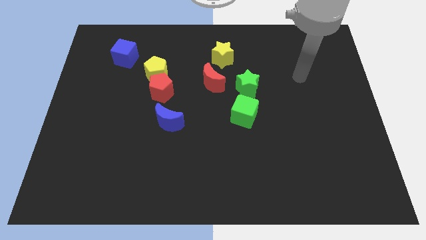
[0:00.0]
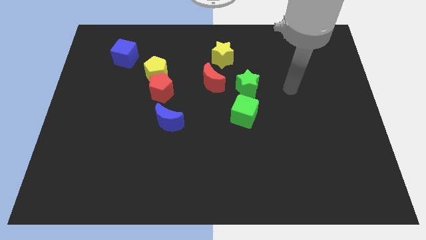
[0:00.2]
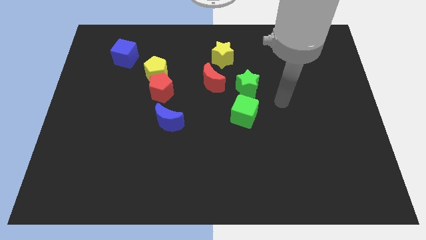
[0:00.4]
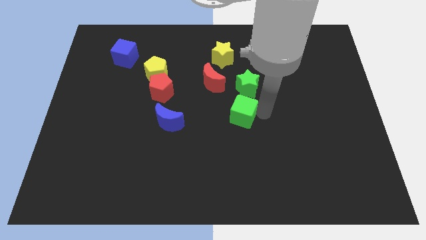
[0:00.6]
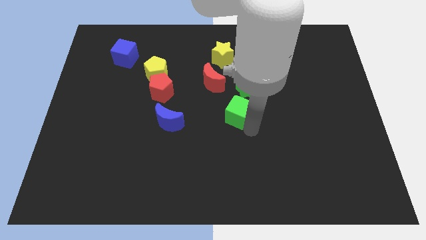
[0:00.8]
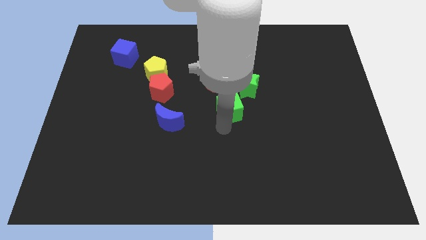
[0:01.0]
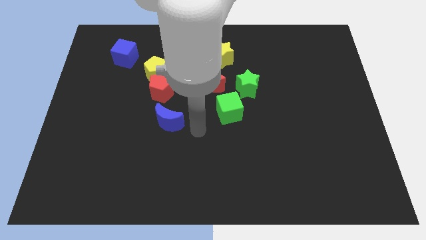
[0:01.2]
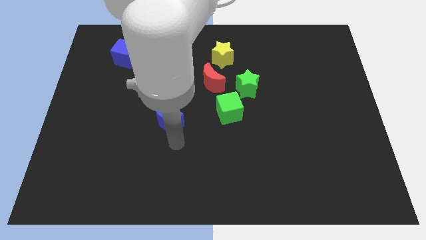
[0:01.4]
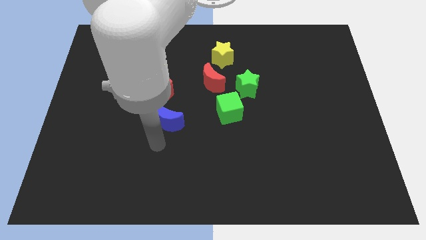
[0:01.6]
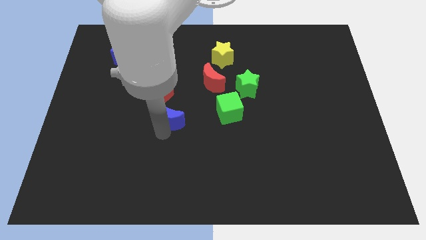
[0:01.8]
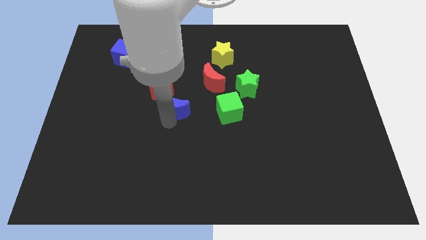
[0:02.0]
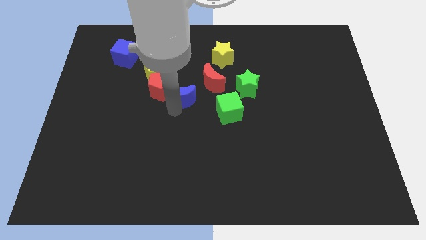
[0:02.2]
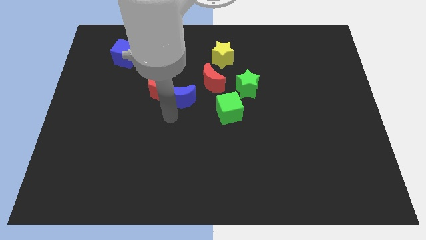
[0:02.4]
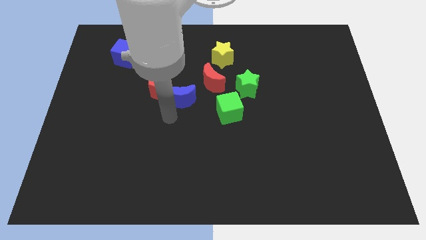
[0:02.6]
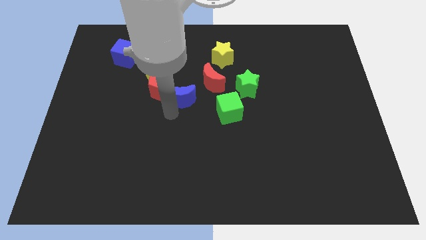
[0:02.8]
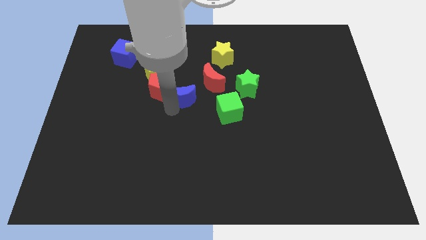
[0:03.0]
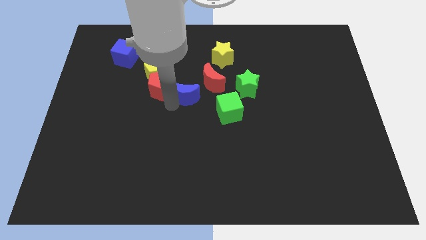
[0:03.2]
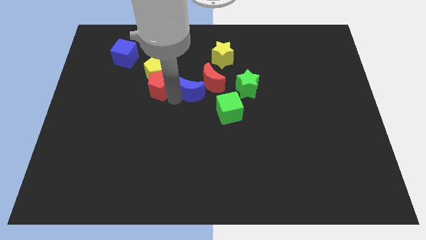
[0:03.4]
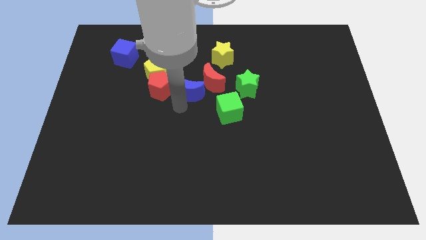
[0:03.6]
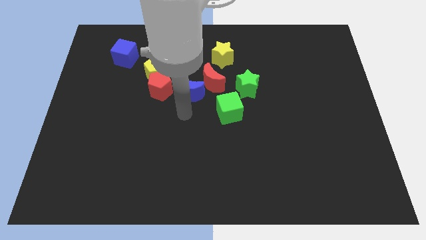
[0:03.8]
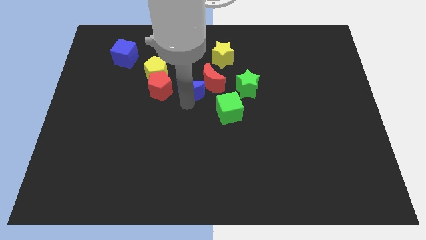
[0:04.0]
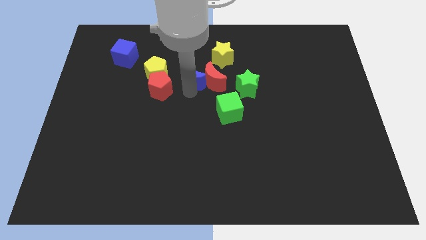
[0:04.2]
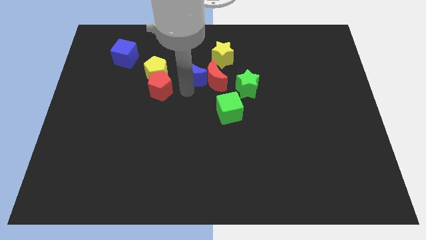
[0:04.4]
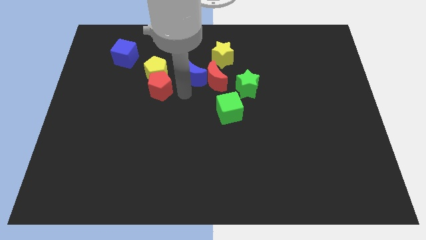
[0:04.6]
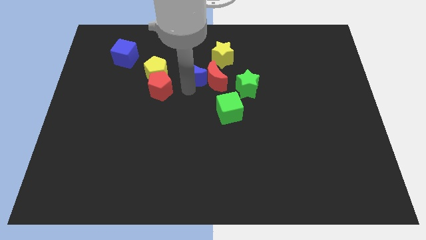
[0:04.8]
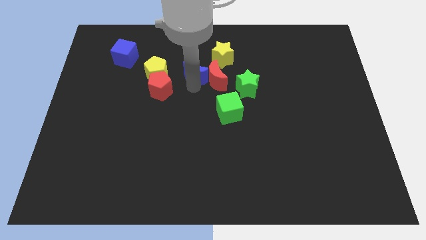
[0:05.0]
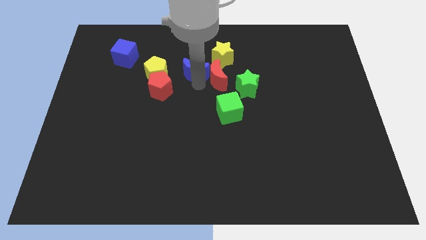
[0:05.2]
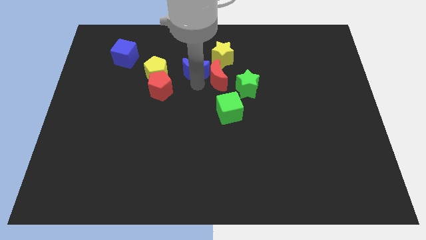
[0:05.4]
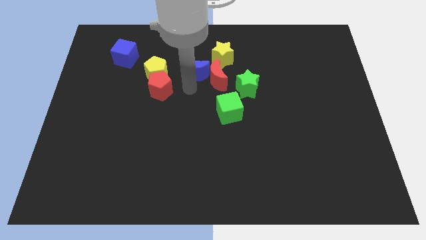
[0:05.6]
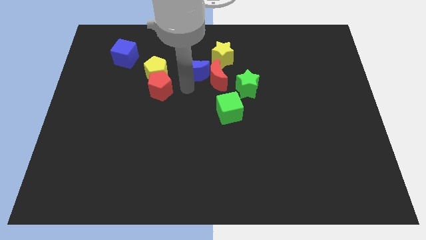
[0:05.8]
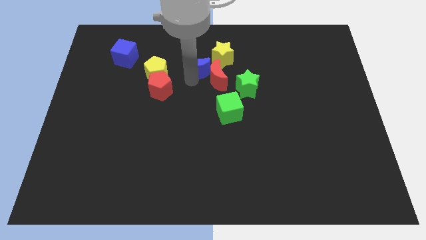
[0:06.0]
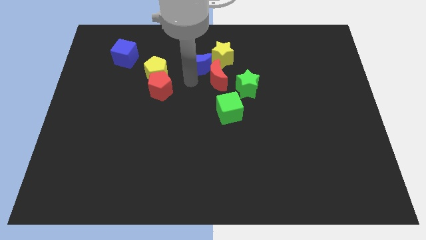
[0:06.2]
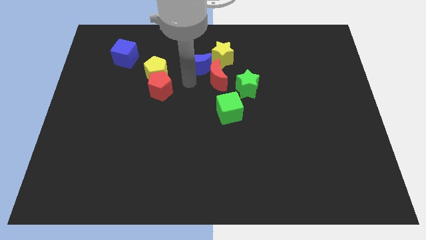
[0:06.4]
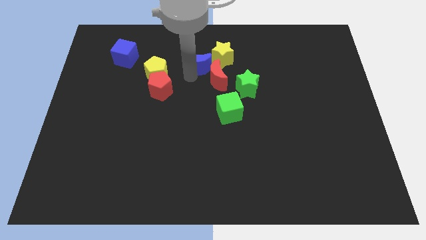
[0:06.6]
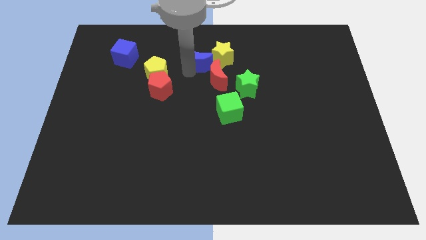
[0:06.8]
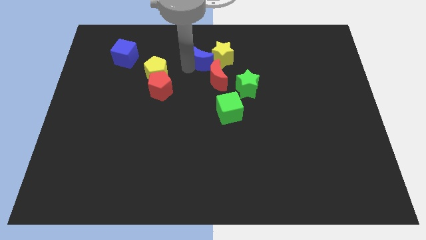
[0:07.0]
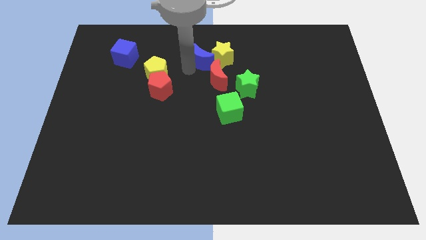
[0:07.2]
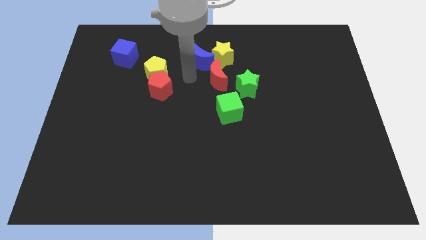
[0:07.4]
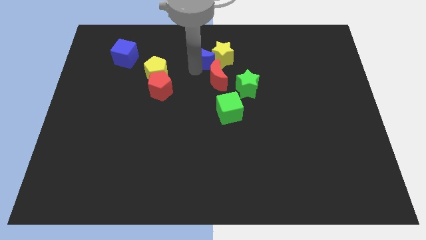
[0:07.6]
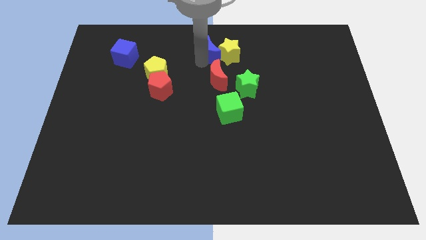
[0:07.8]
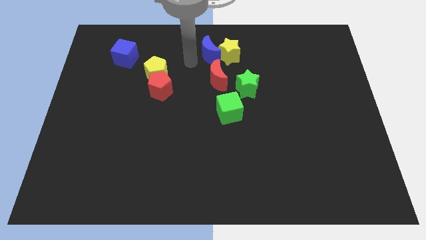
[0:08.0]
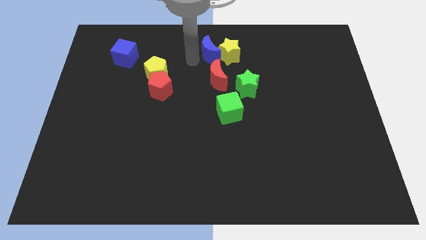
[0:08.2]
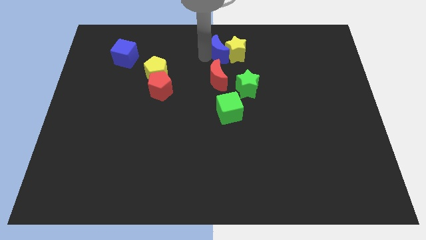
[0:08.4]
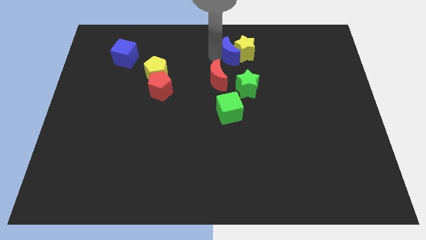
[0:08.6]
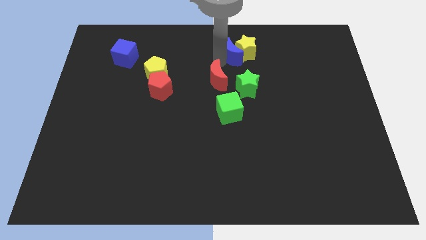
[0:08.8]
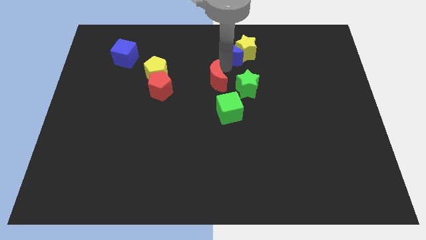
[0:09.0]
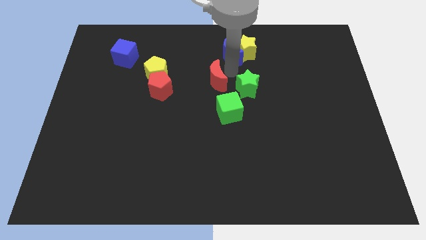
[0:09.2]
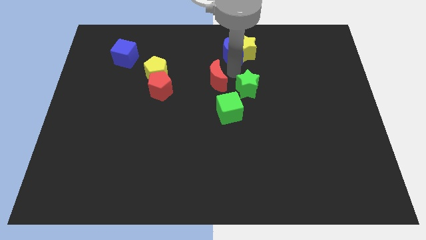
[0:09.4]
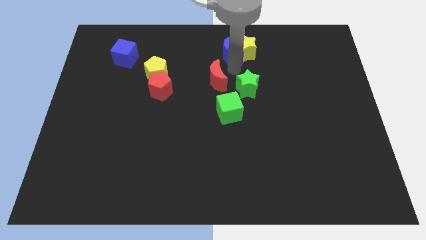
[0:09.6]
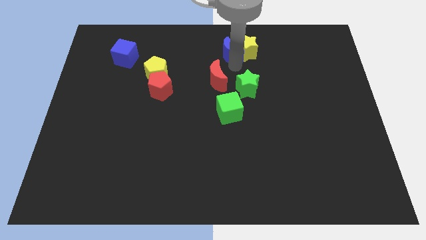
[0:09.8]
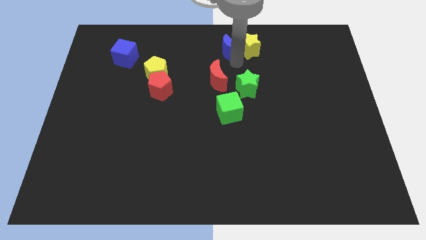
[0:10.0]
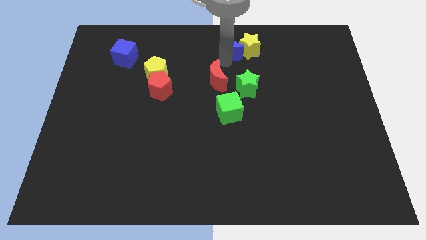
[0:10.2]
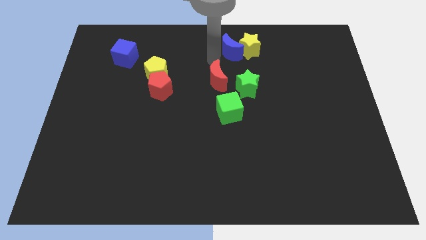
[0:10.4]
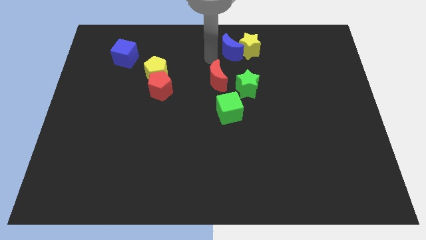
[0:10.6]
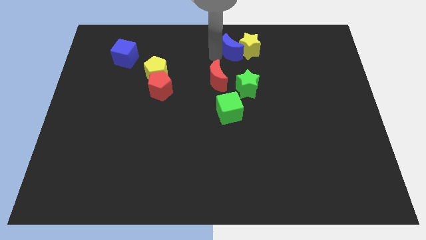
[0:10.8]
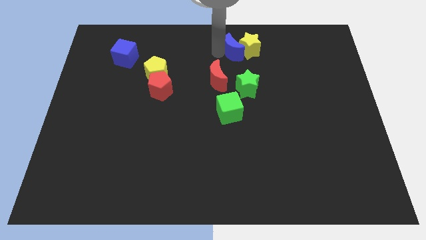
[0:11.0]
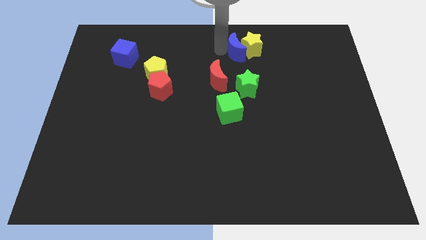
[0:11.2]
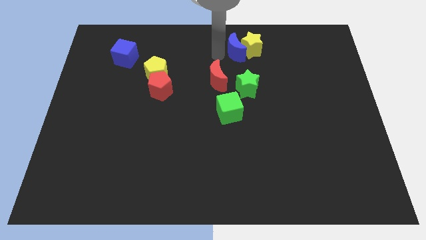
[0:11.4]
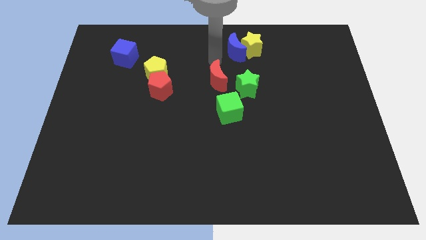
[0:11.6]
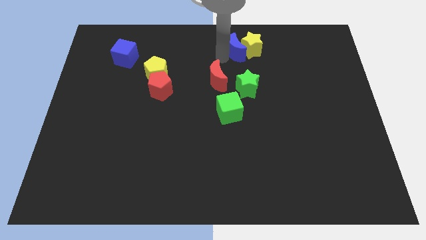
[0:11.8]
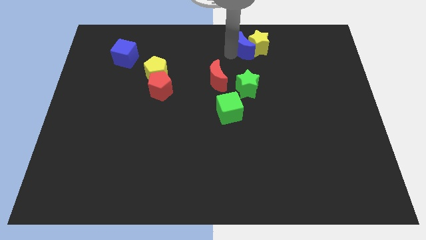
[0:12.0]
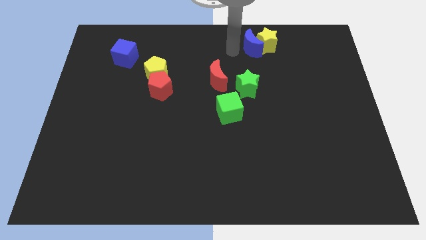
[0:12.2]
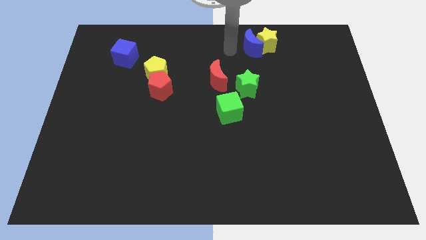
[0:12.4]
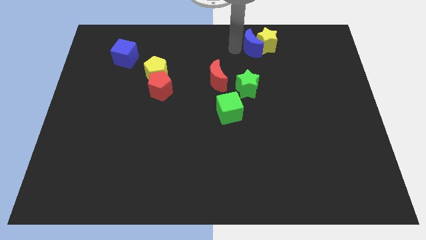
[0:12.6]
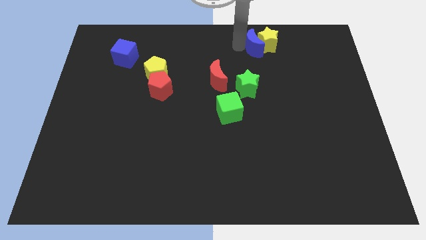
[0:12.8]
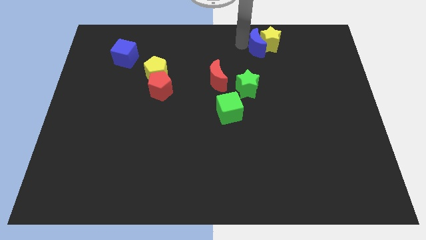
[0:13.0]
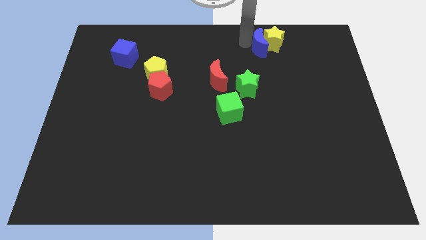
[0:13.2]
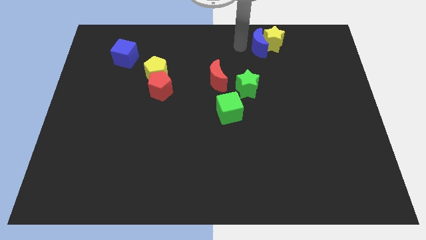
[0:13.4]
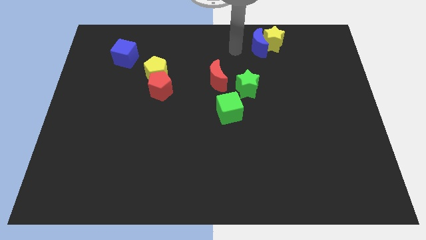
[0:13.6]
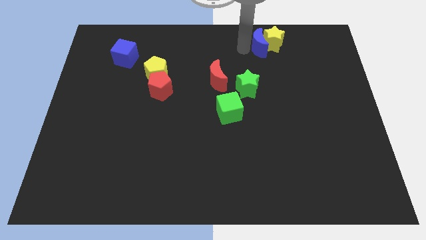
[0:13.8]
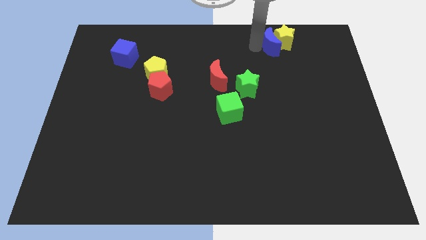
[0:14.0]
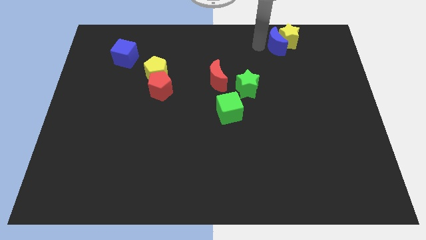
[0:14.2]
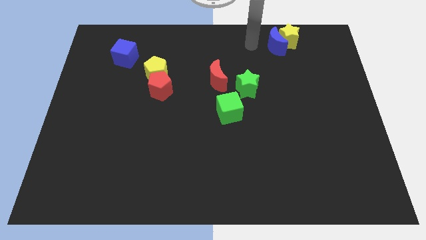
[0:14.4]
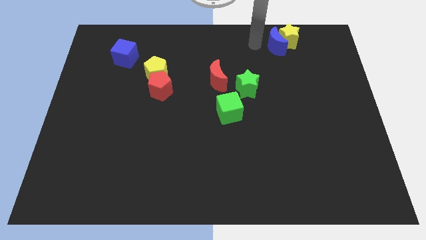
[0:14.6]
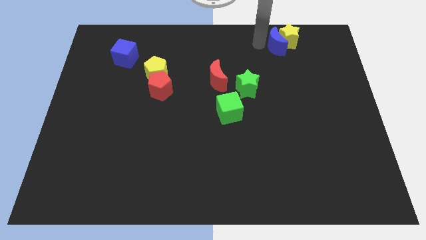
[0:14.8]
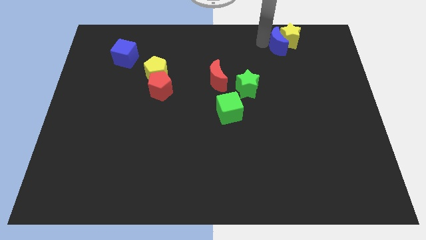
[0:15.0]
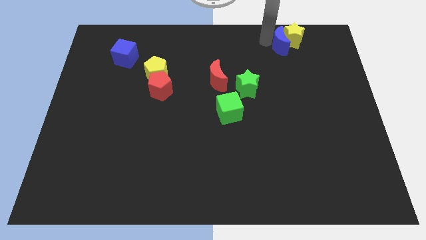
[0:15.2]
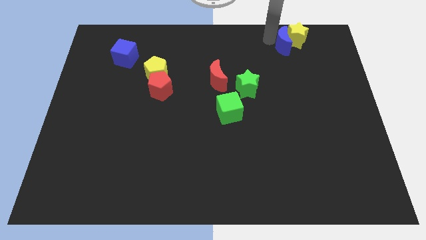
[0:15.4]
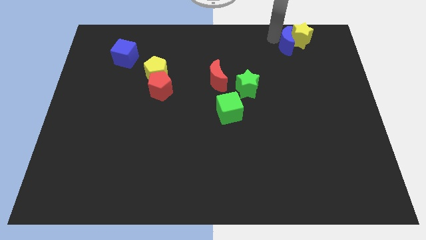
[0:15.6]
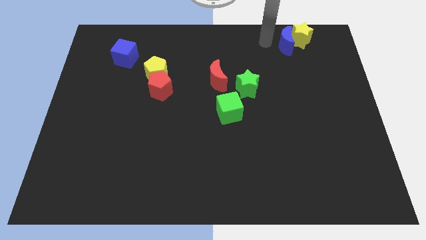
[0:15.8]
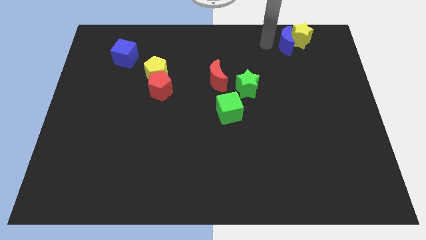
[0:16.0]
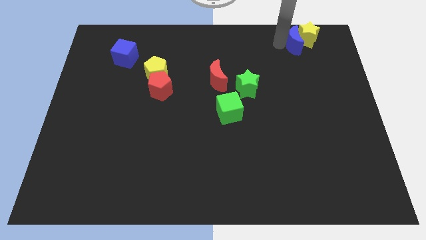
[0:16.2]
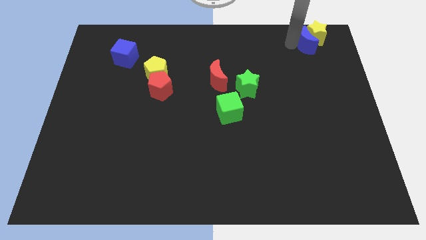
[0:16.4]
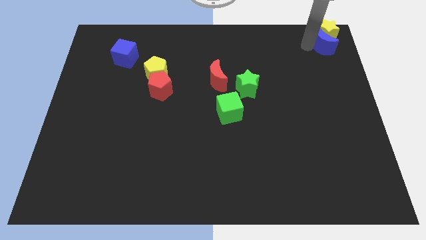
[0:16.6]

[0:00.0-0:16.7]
move the blue moon to the upper right corner
